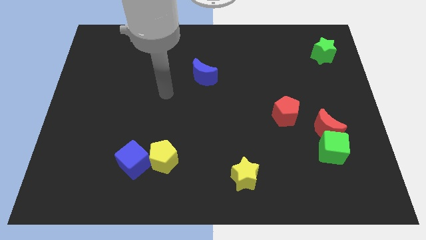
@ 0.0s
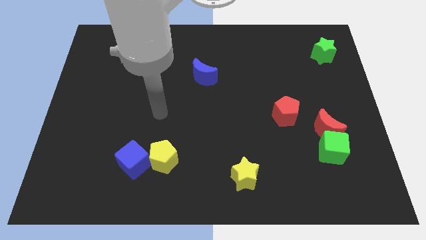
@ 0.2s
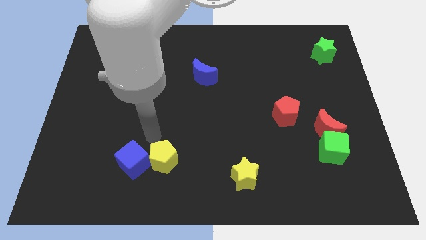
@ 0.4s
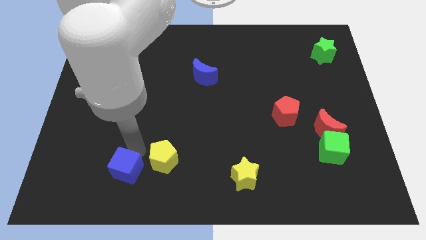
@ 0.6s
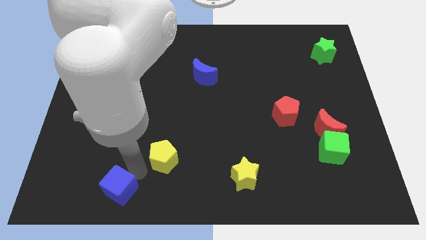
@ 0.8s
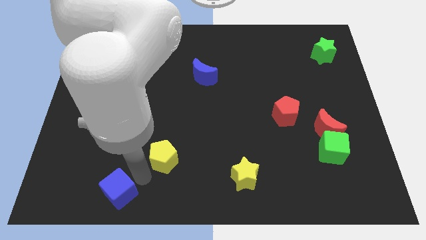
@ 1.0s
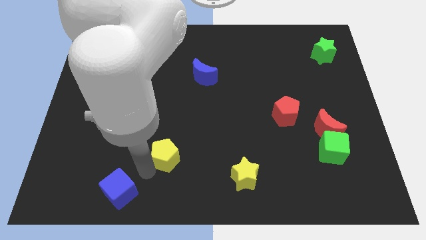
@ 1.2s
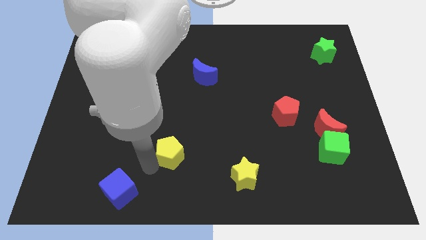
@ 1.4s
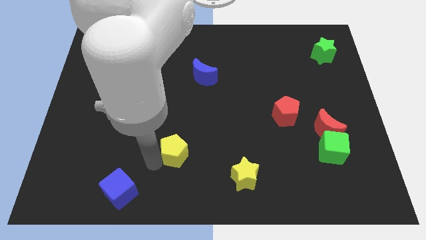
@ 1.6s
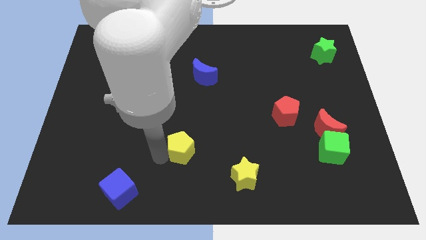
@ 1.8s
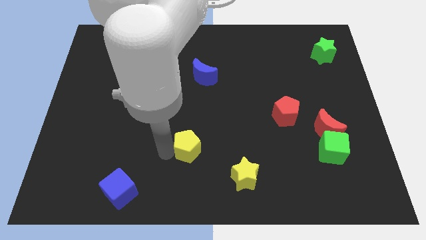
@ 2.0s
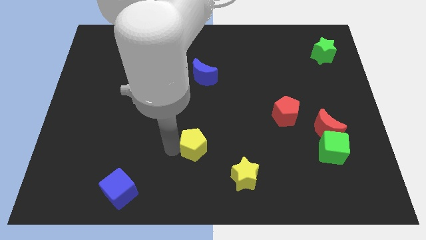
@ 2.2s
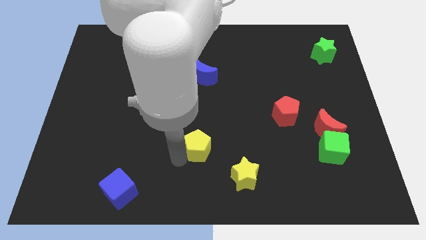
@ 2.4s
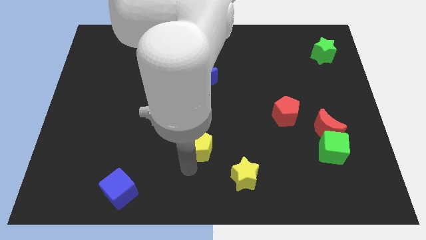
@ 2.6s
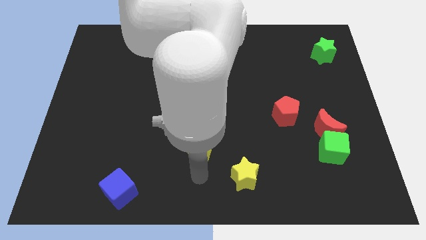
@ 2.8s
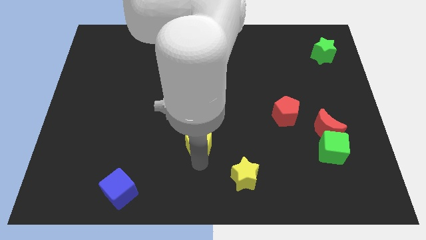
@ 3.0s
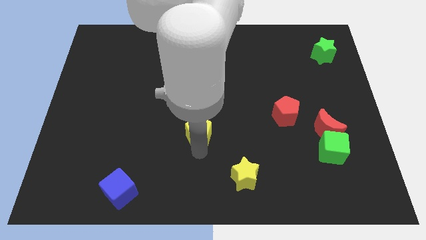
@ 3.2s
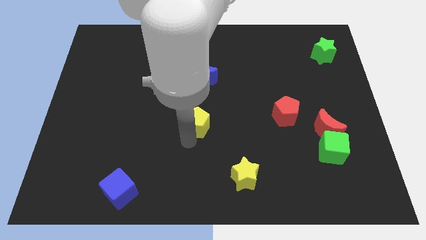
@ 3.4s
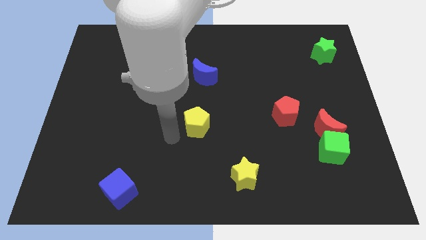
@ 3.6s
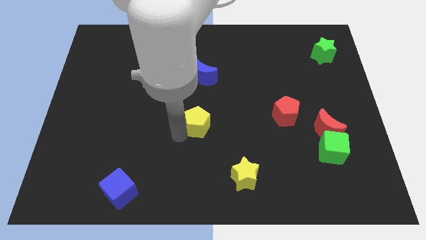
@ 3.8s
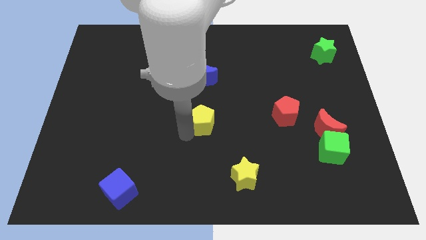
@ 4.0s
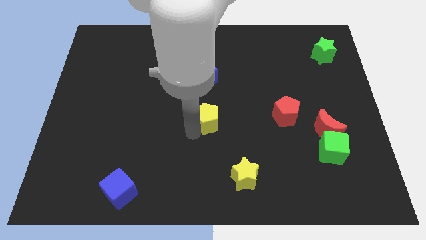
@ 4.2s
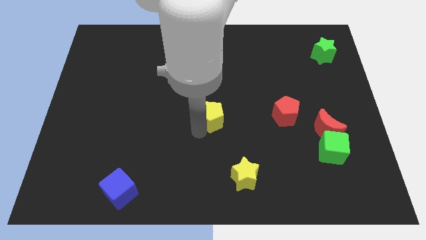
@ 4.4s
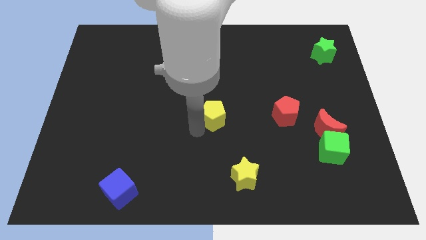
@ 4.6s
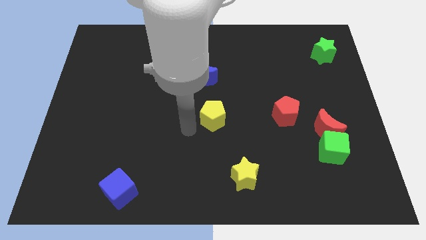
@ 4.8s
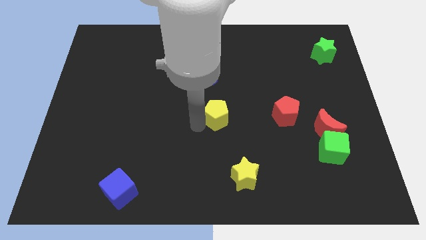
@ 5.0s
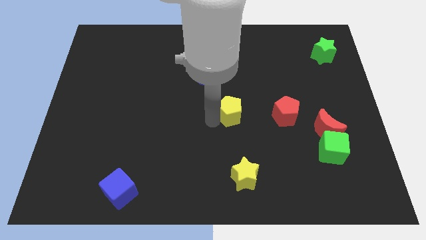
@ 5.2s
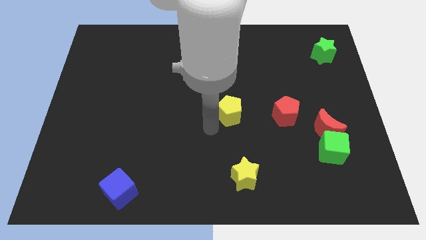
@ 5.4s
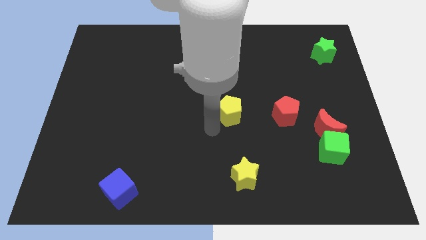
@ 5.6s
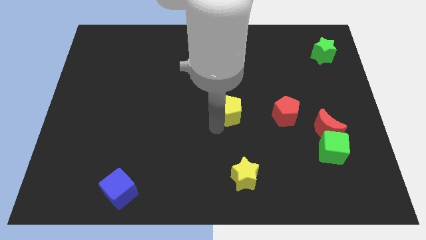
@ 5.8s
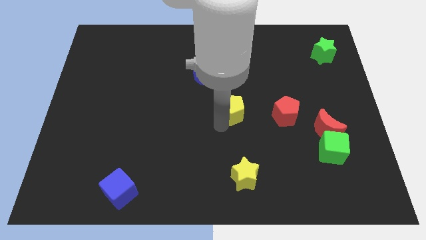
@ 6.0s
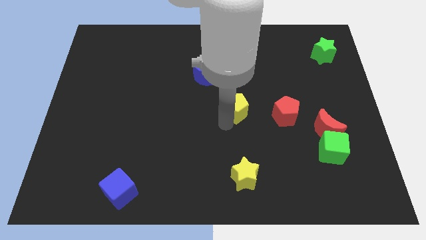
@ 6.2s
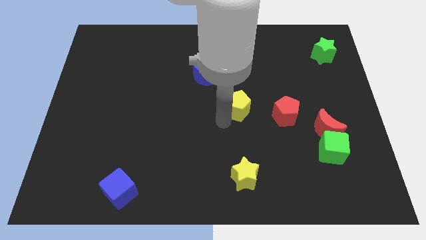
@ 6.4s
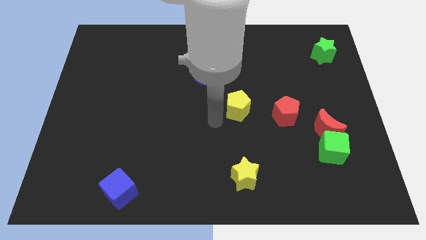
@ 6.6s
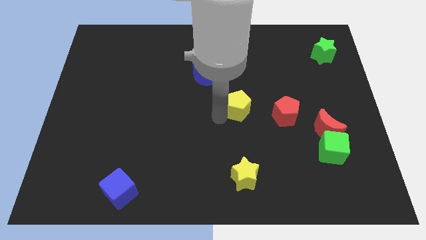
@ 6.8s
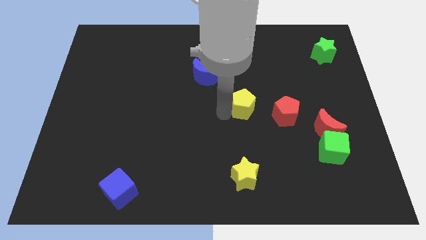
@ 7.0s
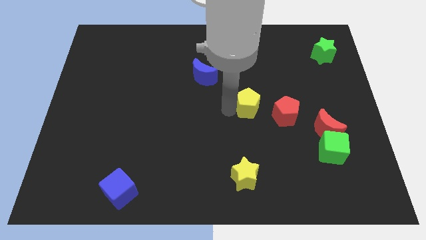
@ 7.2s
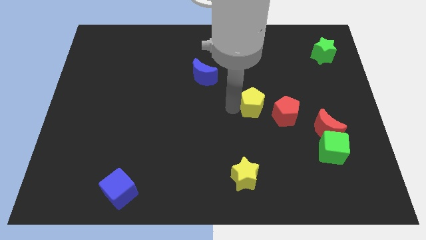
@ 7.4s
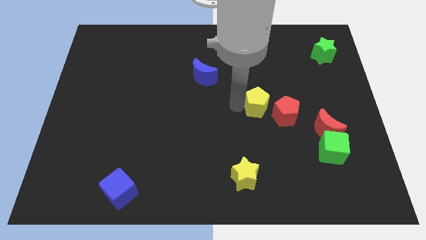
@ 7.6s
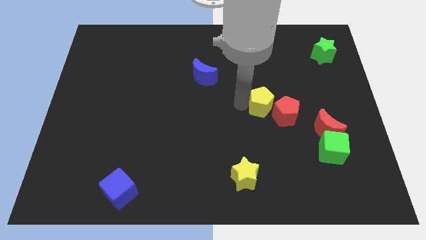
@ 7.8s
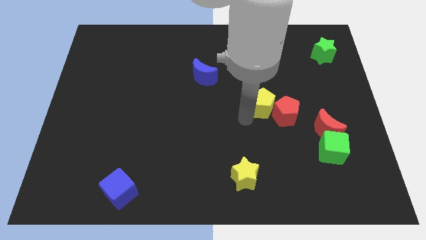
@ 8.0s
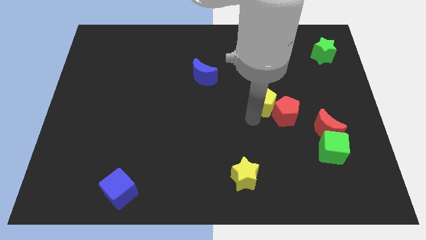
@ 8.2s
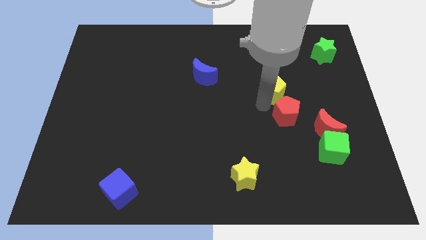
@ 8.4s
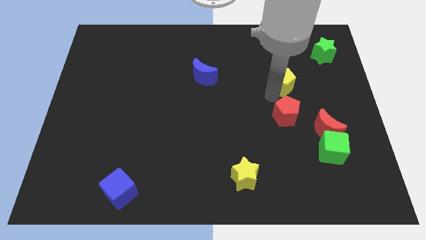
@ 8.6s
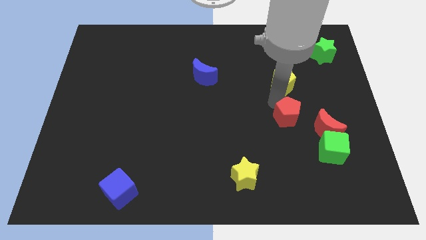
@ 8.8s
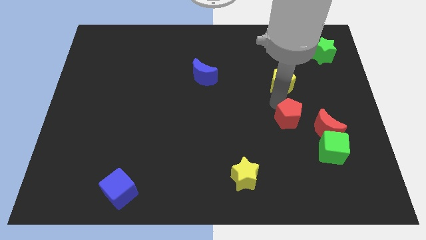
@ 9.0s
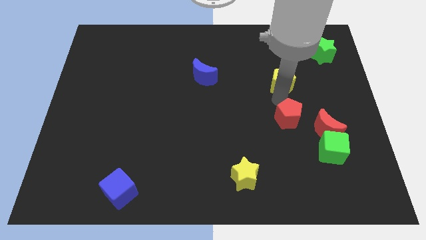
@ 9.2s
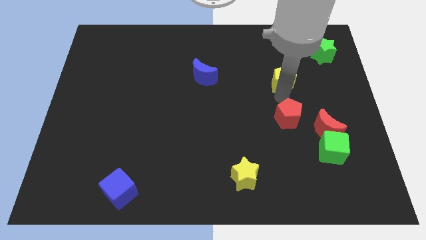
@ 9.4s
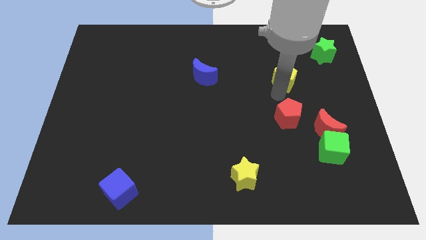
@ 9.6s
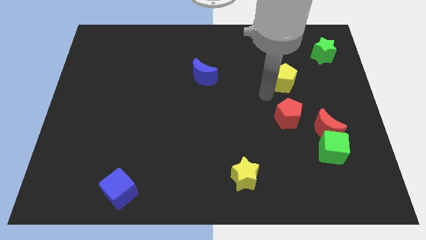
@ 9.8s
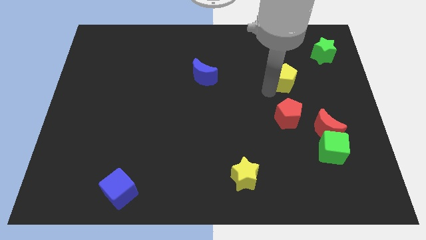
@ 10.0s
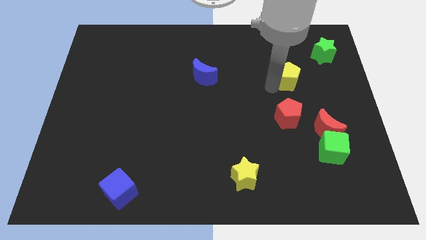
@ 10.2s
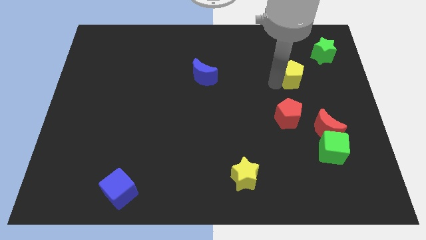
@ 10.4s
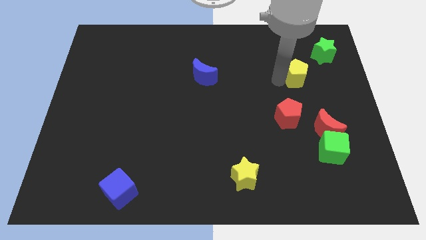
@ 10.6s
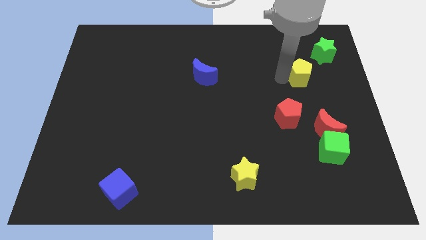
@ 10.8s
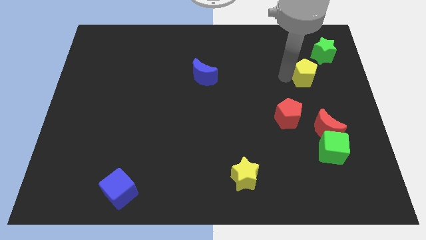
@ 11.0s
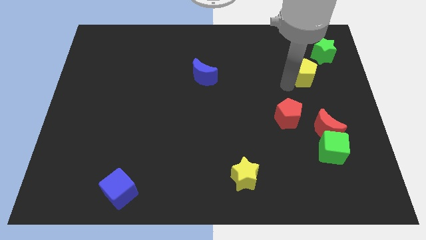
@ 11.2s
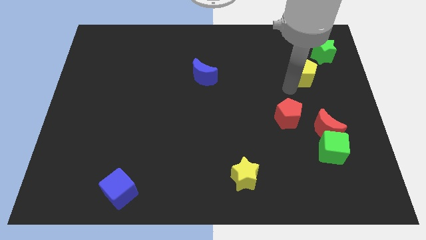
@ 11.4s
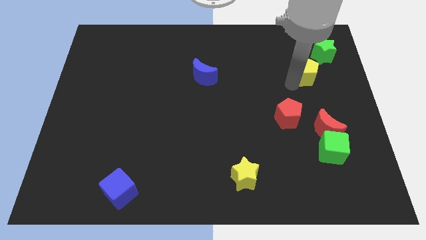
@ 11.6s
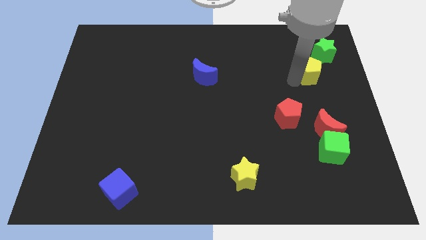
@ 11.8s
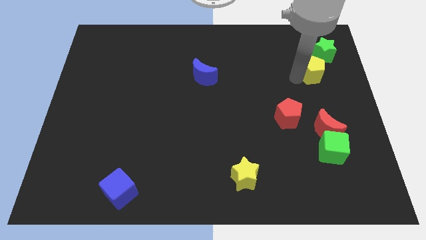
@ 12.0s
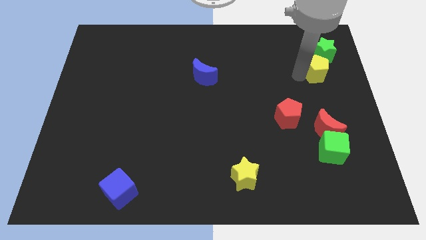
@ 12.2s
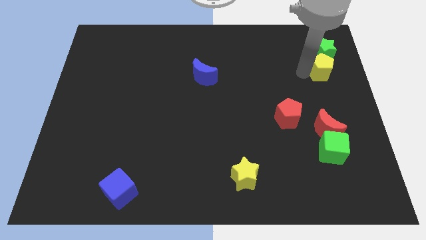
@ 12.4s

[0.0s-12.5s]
push the yellow pentagon towards the green star
